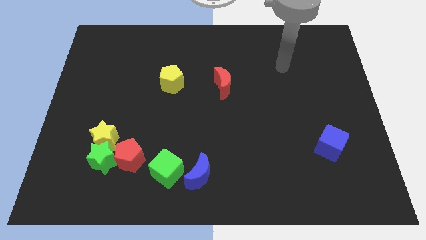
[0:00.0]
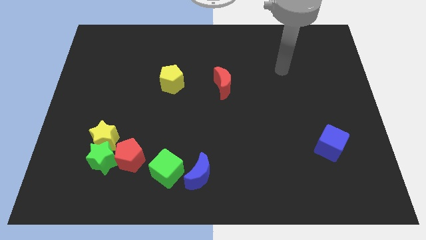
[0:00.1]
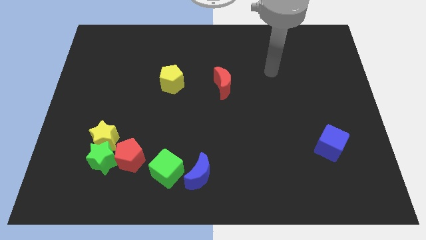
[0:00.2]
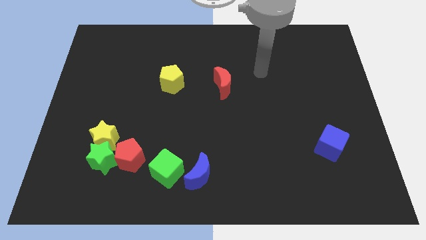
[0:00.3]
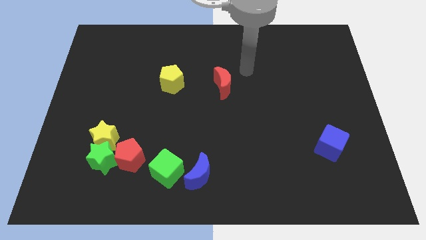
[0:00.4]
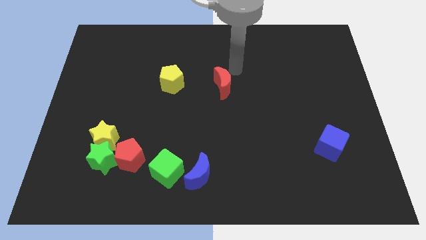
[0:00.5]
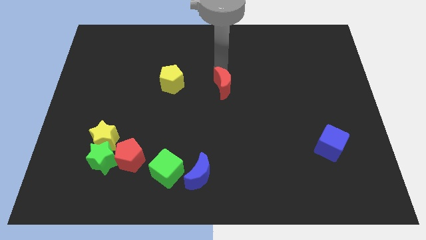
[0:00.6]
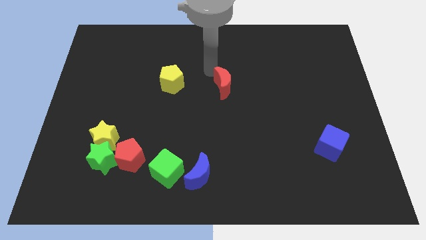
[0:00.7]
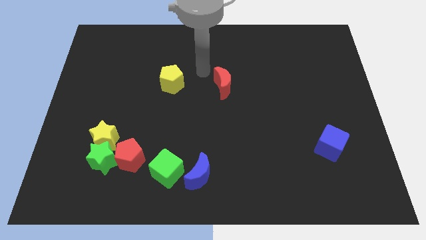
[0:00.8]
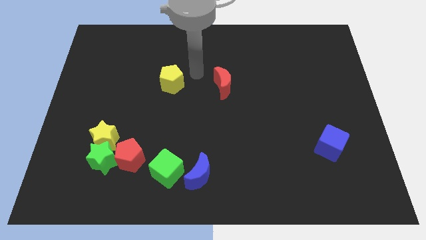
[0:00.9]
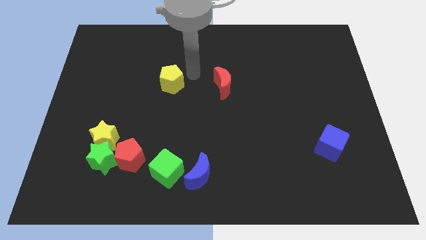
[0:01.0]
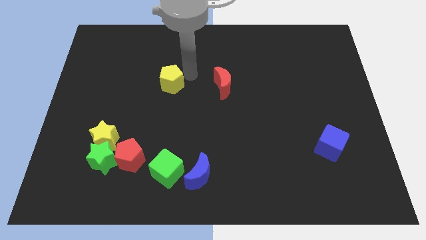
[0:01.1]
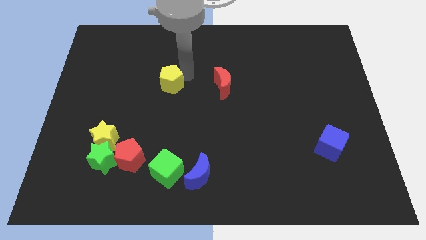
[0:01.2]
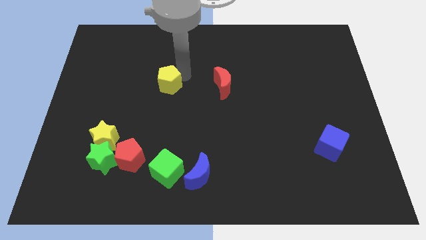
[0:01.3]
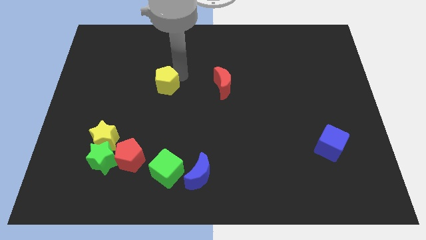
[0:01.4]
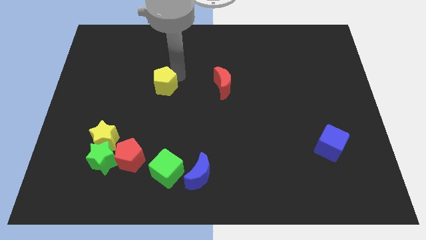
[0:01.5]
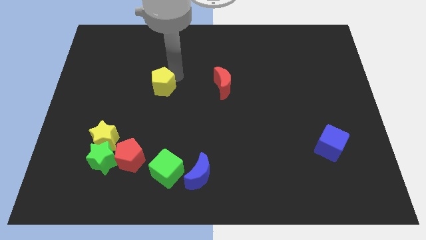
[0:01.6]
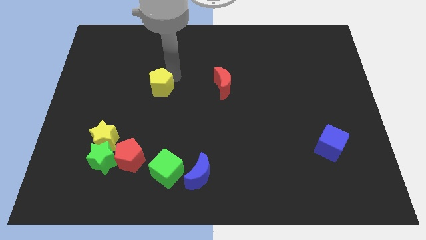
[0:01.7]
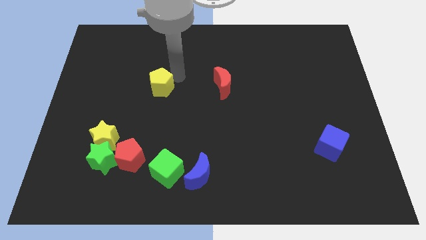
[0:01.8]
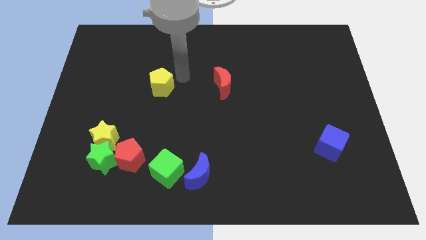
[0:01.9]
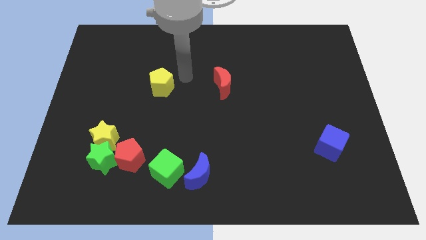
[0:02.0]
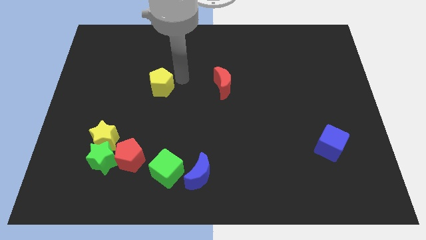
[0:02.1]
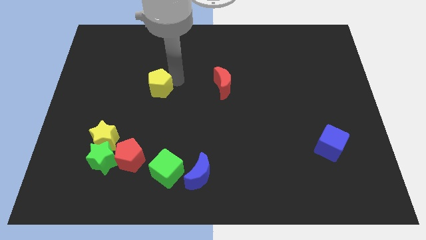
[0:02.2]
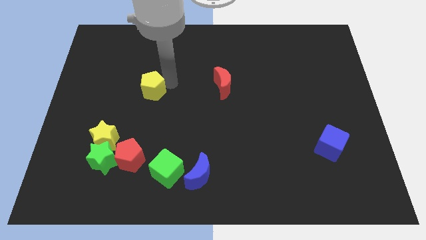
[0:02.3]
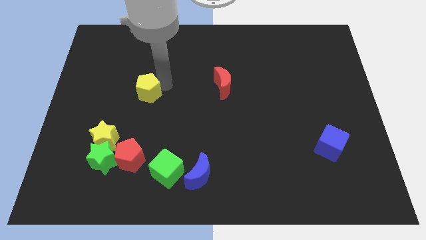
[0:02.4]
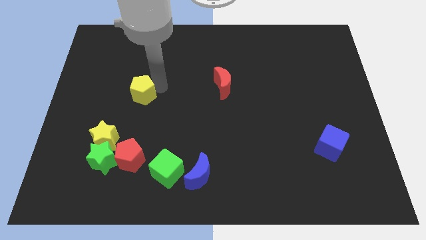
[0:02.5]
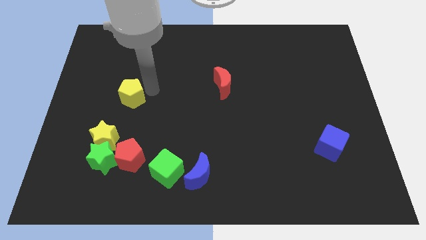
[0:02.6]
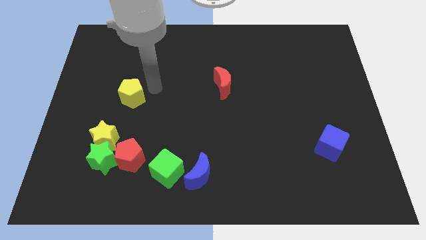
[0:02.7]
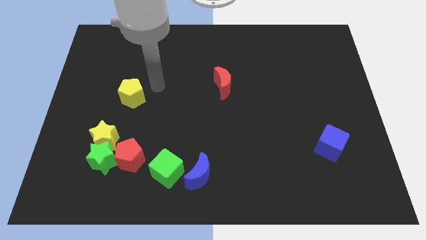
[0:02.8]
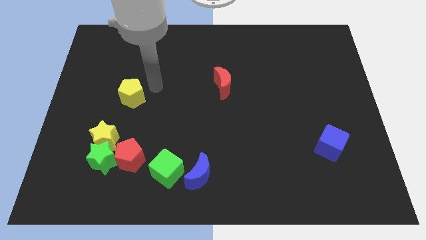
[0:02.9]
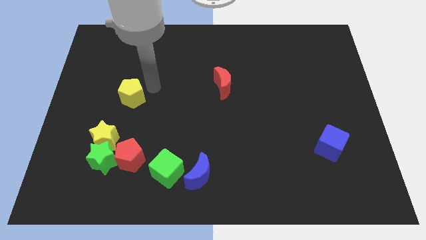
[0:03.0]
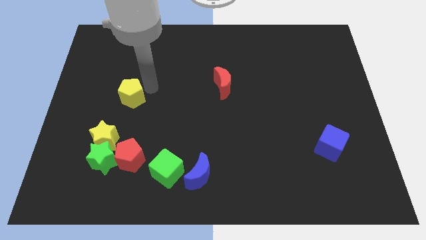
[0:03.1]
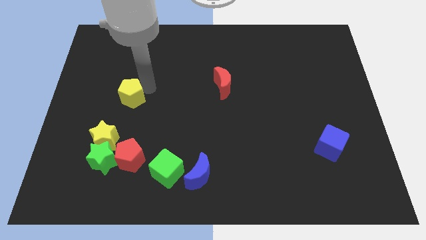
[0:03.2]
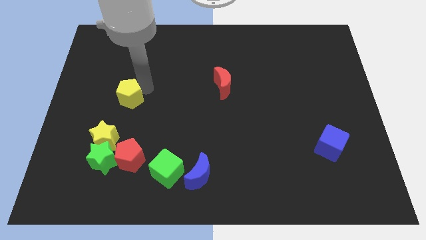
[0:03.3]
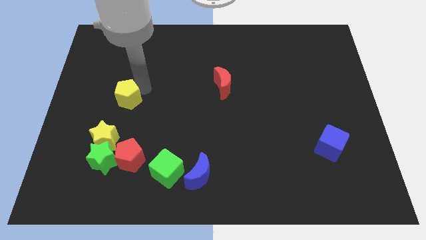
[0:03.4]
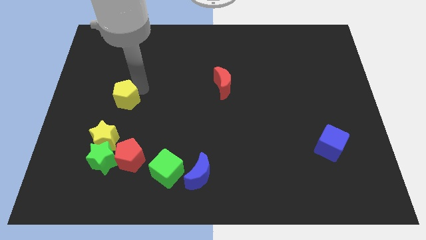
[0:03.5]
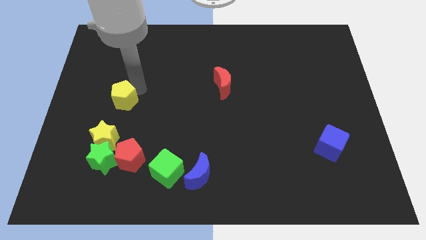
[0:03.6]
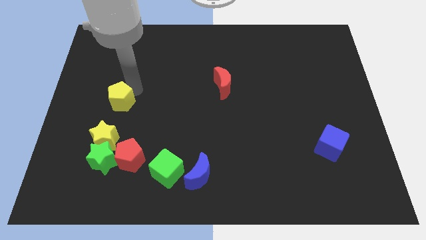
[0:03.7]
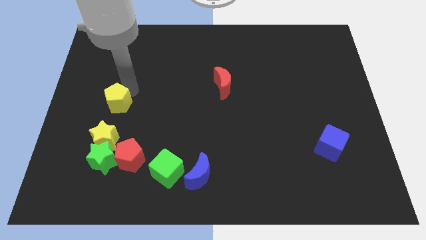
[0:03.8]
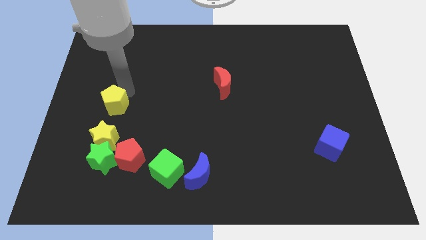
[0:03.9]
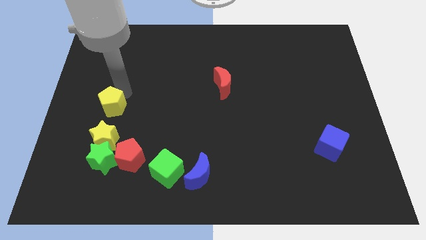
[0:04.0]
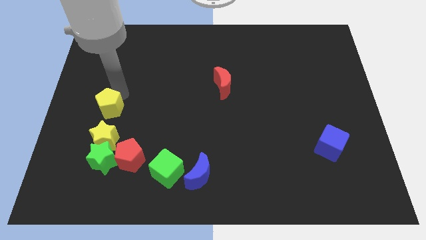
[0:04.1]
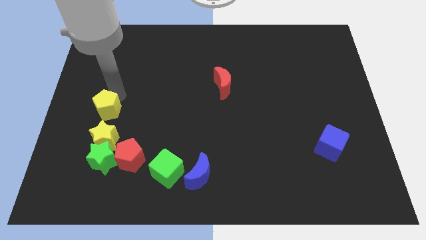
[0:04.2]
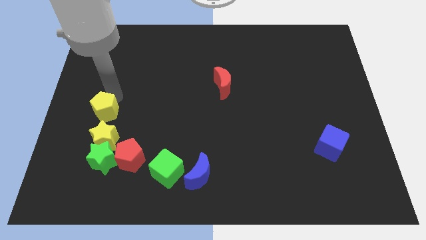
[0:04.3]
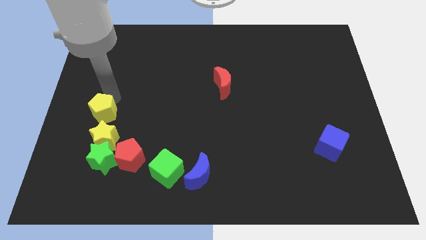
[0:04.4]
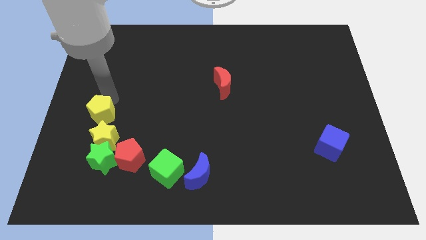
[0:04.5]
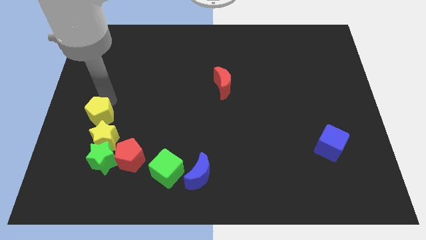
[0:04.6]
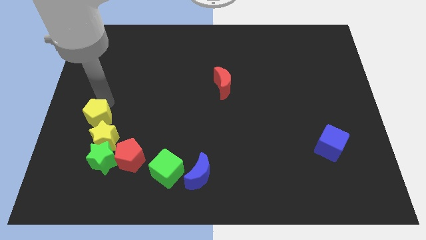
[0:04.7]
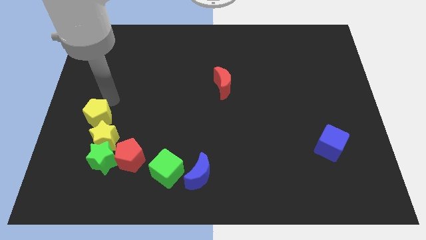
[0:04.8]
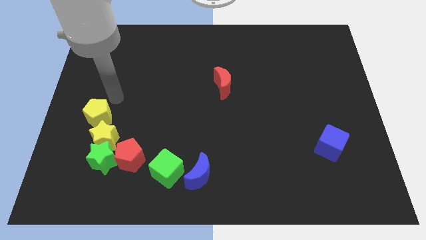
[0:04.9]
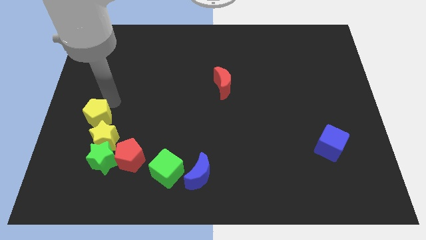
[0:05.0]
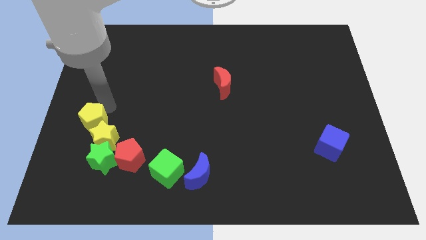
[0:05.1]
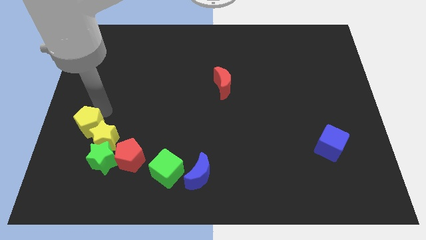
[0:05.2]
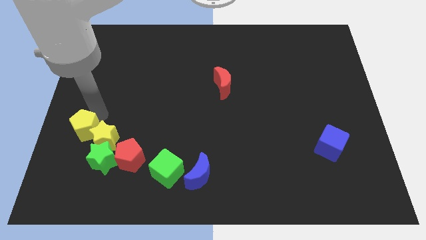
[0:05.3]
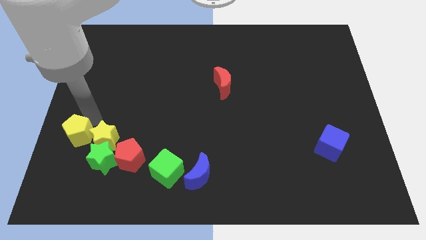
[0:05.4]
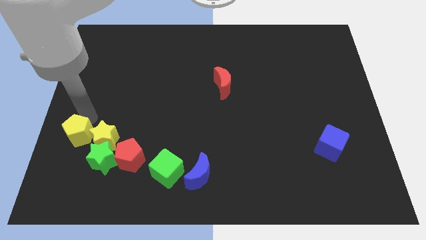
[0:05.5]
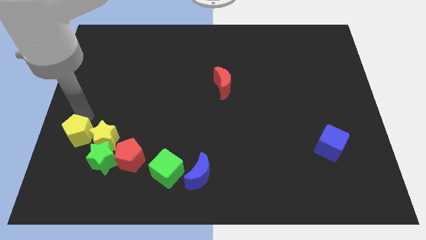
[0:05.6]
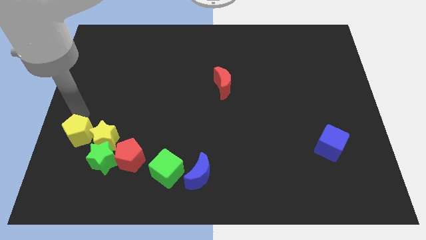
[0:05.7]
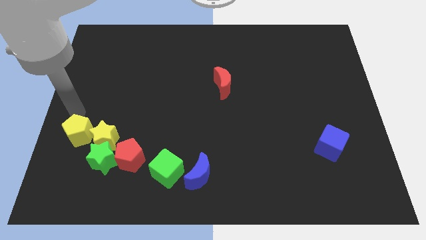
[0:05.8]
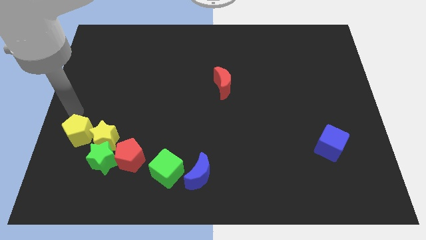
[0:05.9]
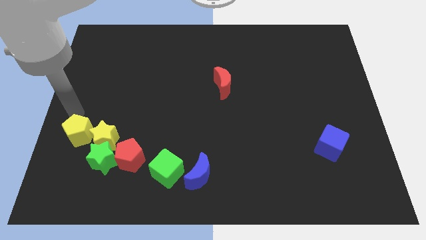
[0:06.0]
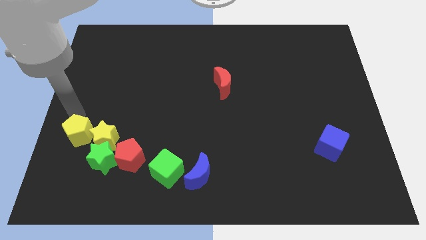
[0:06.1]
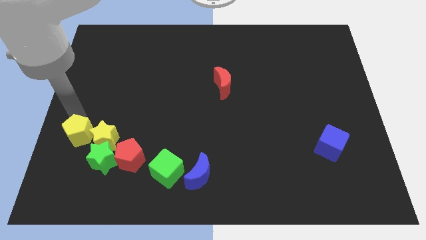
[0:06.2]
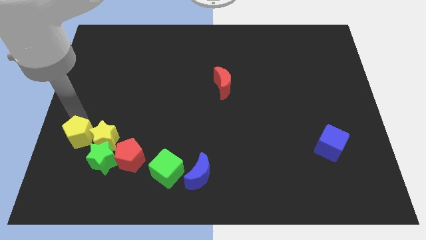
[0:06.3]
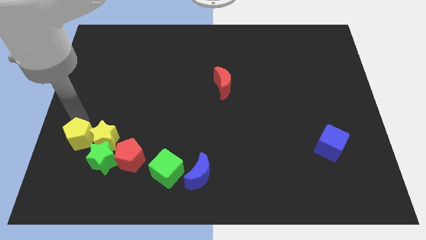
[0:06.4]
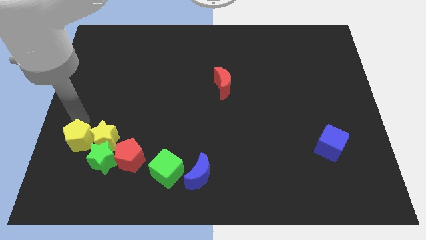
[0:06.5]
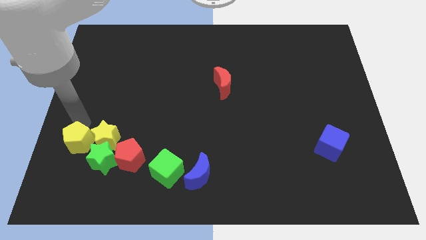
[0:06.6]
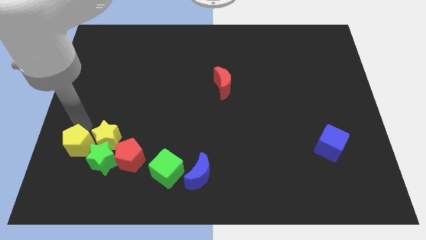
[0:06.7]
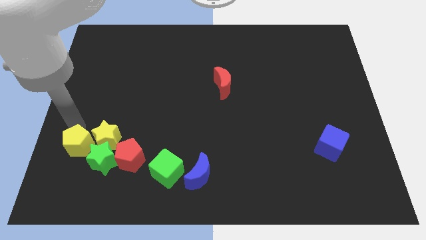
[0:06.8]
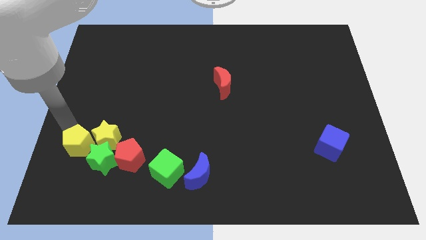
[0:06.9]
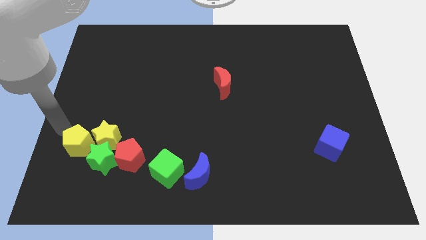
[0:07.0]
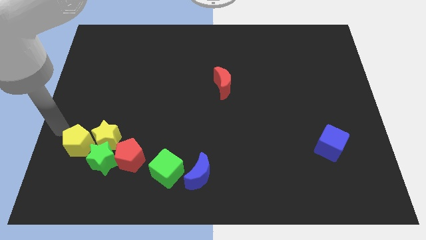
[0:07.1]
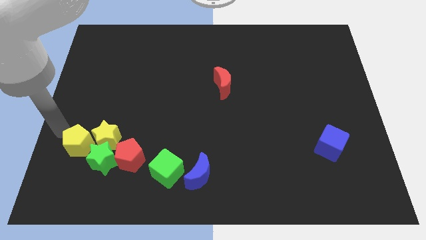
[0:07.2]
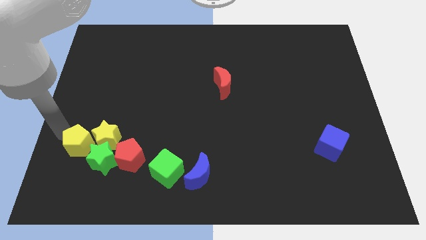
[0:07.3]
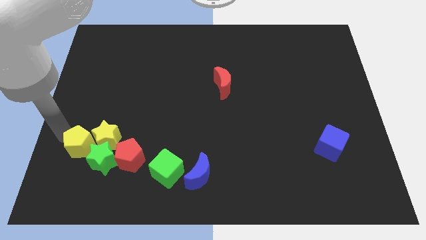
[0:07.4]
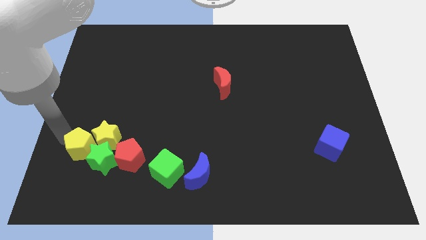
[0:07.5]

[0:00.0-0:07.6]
move the yellow pentagon next to the green star

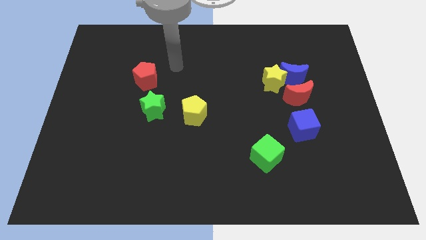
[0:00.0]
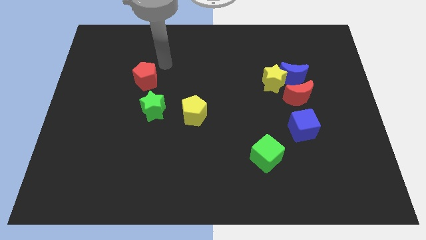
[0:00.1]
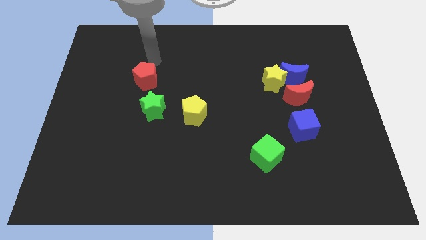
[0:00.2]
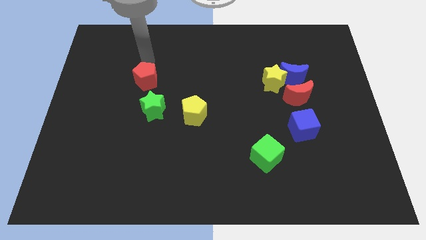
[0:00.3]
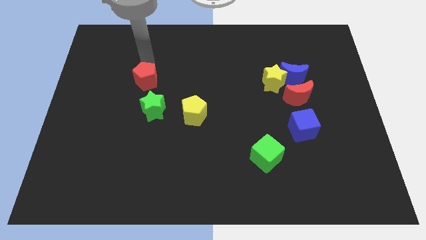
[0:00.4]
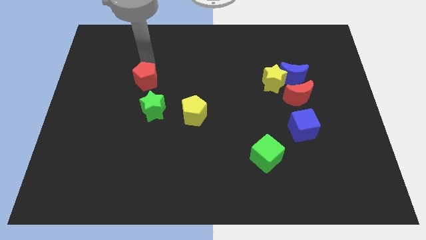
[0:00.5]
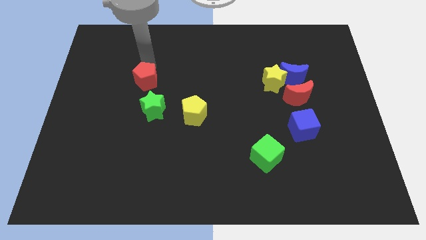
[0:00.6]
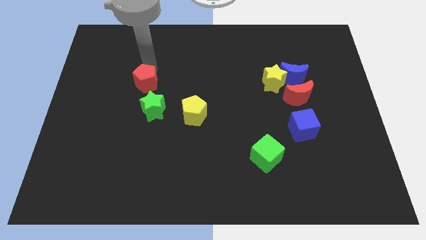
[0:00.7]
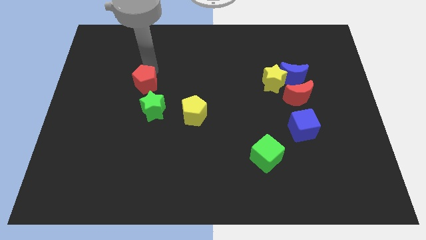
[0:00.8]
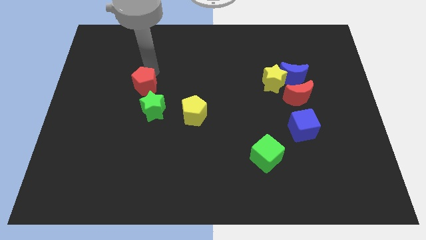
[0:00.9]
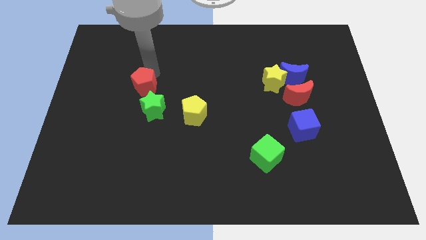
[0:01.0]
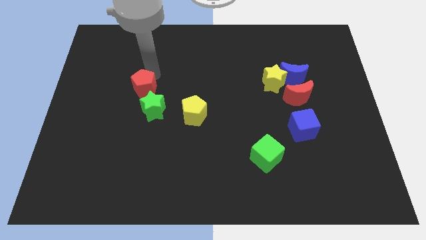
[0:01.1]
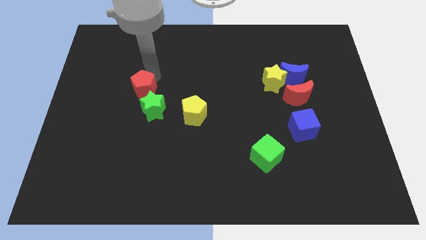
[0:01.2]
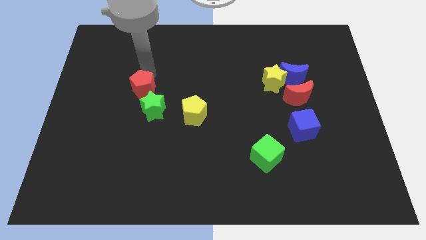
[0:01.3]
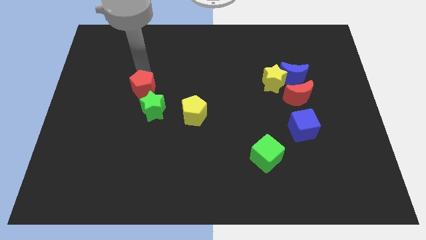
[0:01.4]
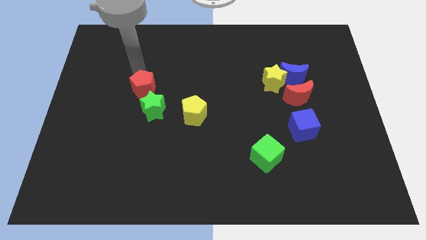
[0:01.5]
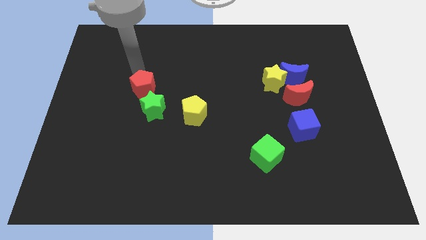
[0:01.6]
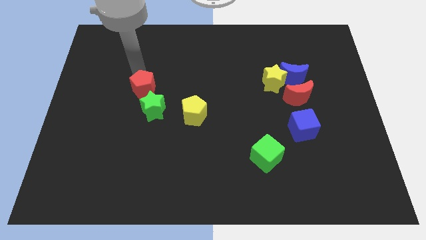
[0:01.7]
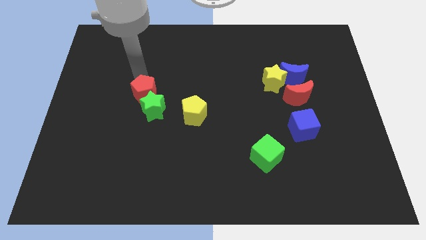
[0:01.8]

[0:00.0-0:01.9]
push the red pentagon close to the green star
